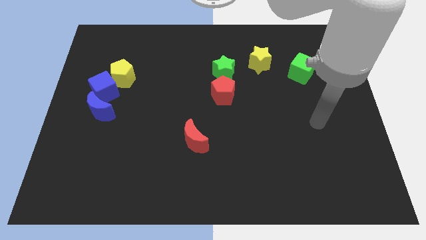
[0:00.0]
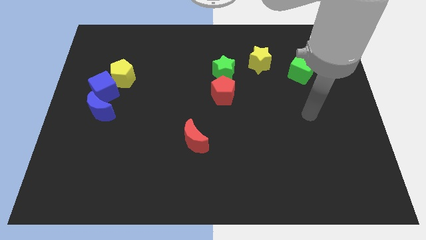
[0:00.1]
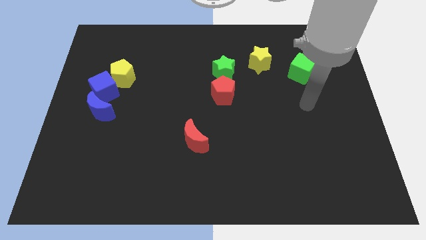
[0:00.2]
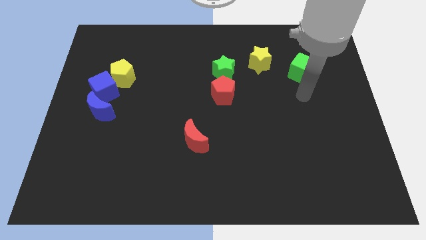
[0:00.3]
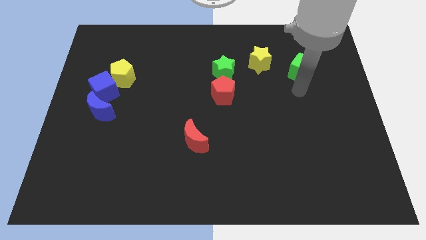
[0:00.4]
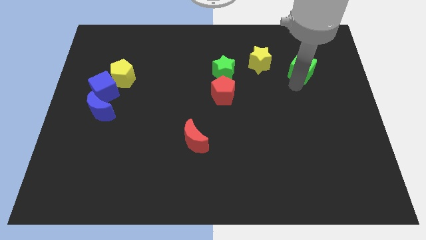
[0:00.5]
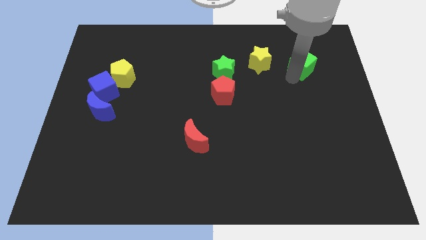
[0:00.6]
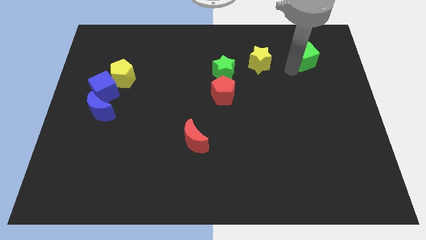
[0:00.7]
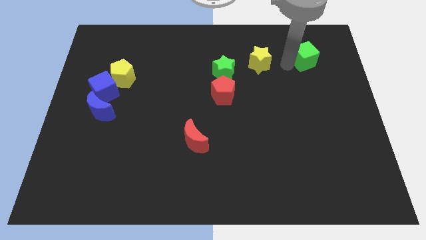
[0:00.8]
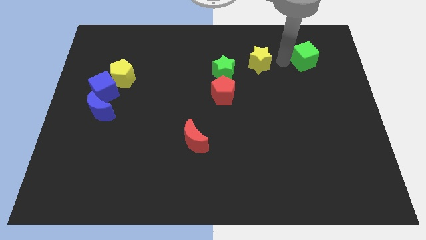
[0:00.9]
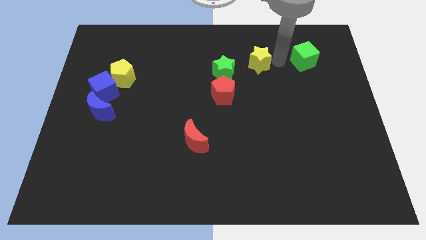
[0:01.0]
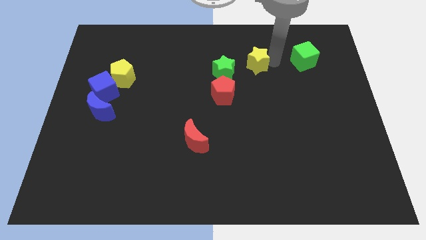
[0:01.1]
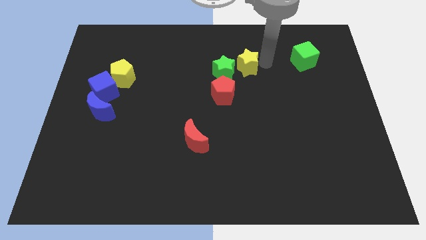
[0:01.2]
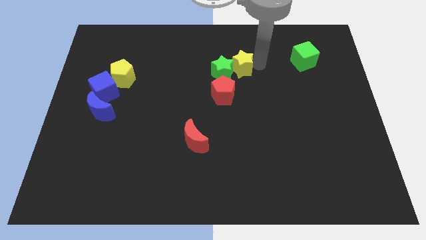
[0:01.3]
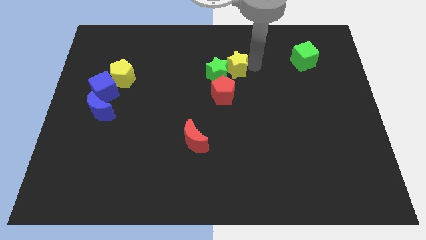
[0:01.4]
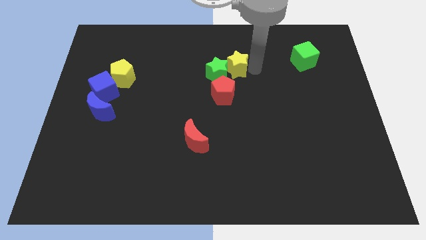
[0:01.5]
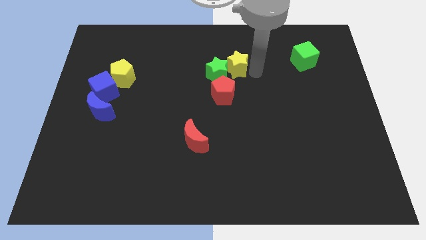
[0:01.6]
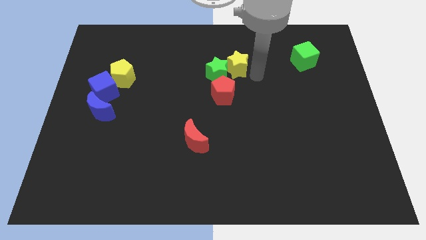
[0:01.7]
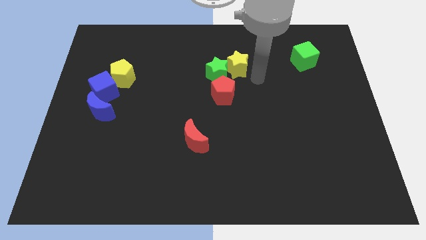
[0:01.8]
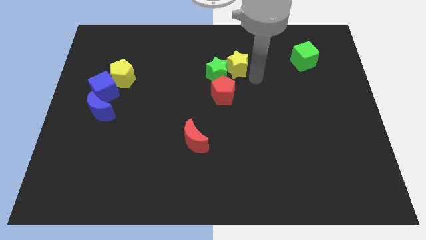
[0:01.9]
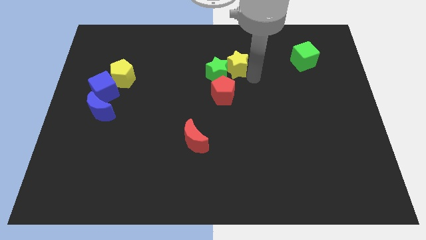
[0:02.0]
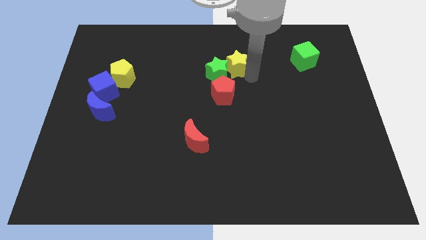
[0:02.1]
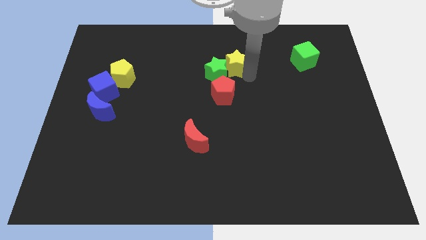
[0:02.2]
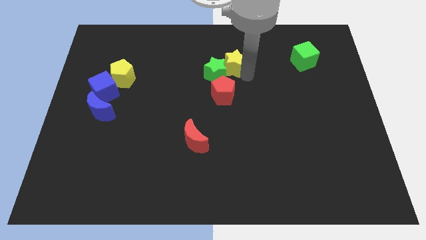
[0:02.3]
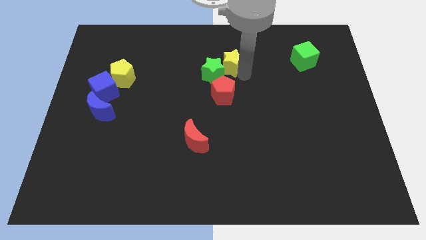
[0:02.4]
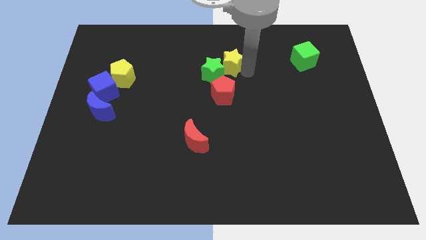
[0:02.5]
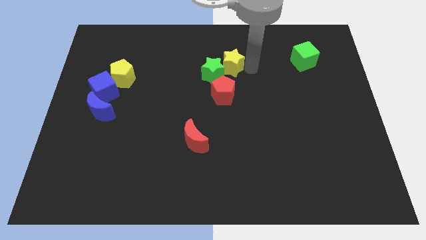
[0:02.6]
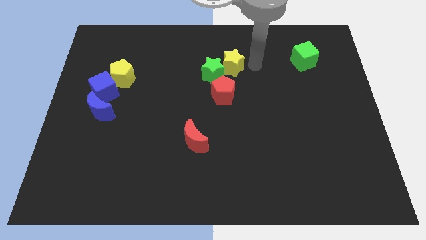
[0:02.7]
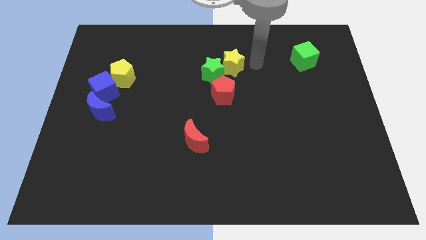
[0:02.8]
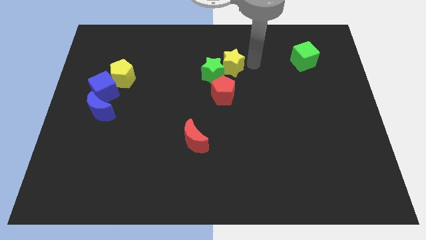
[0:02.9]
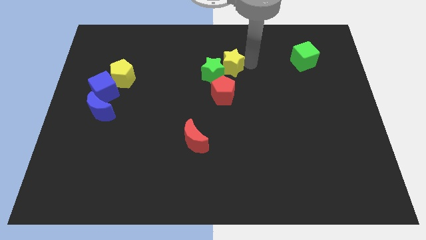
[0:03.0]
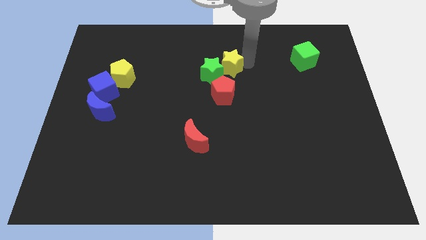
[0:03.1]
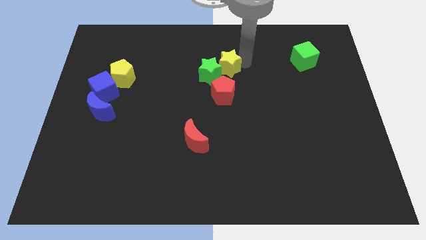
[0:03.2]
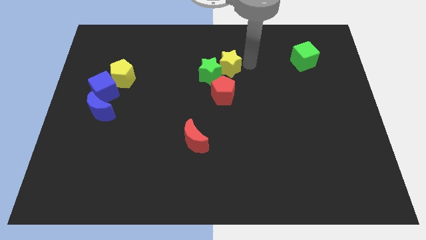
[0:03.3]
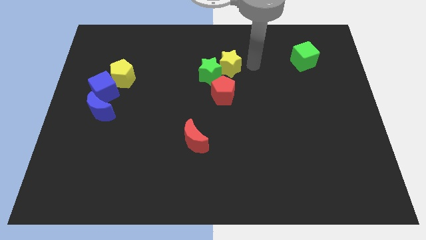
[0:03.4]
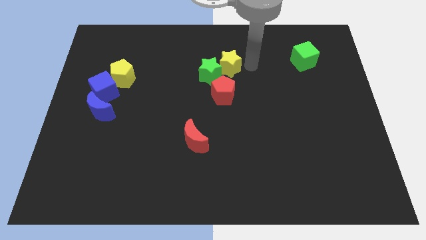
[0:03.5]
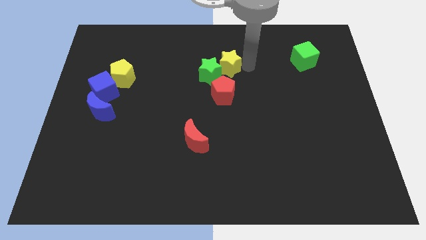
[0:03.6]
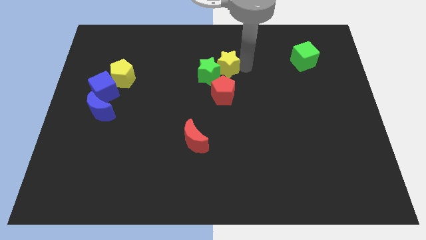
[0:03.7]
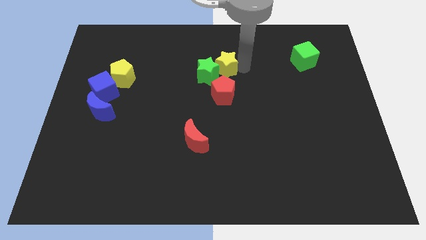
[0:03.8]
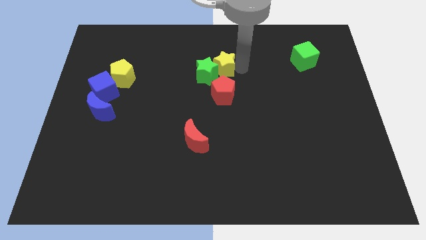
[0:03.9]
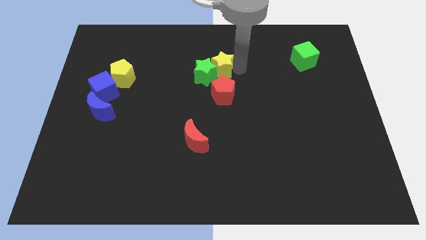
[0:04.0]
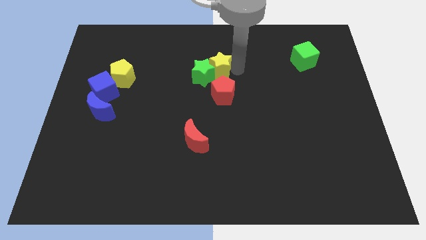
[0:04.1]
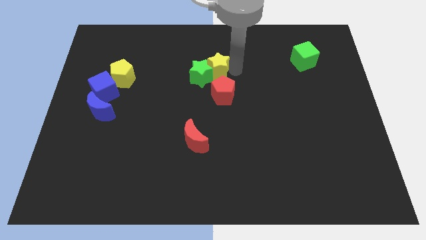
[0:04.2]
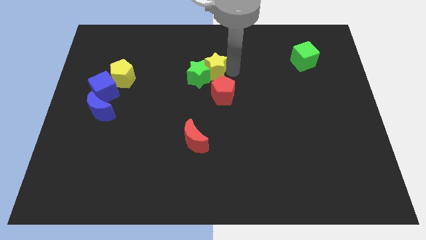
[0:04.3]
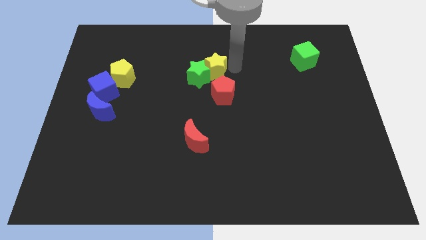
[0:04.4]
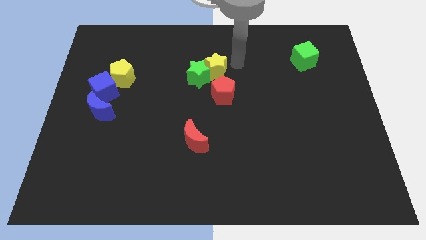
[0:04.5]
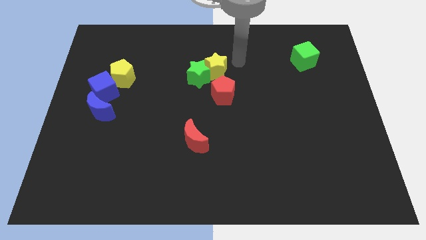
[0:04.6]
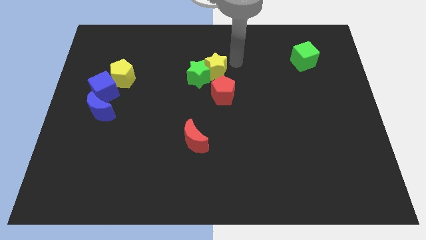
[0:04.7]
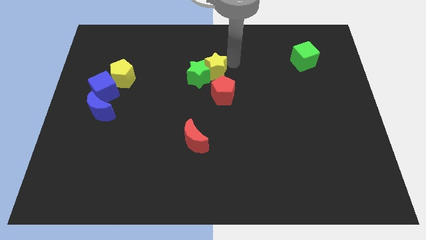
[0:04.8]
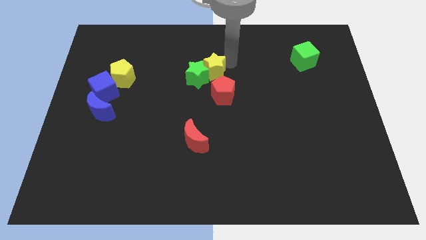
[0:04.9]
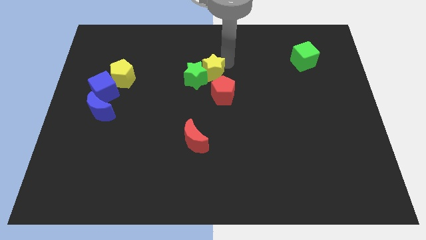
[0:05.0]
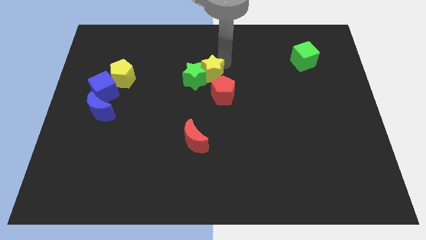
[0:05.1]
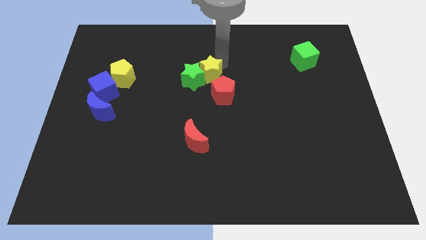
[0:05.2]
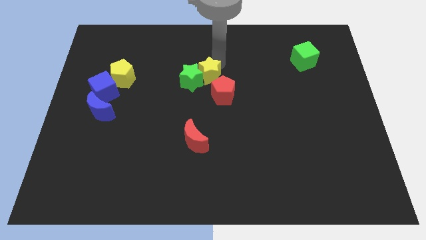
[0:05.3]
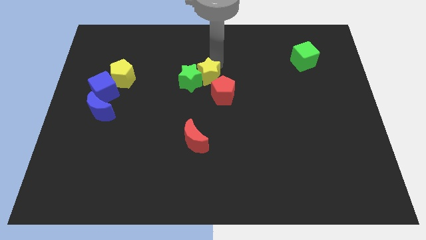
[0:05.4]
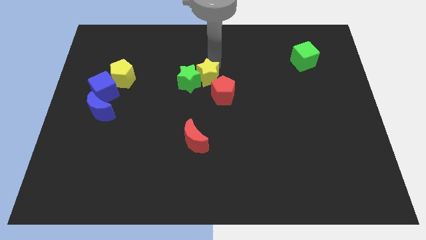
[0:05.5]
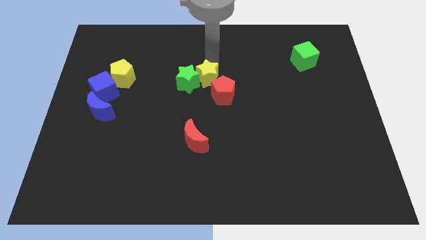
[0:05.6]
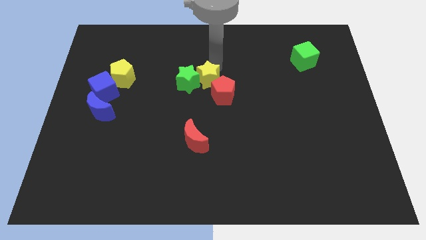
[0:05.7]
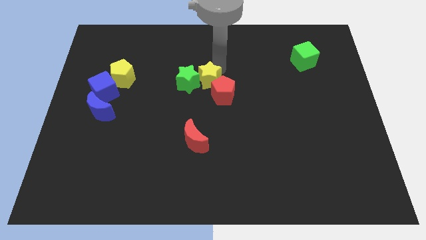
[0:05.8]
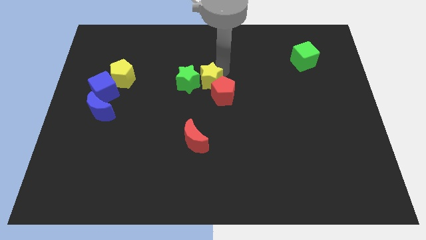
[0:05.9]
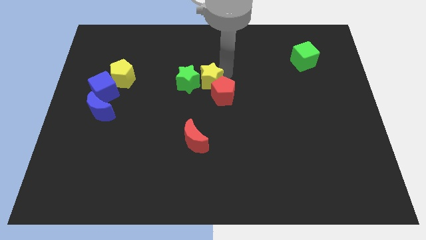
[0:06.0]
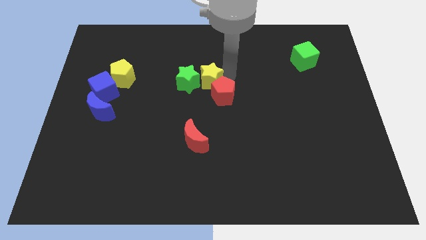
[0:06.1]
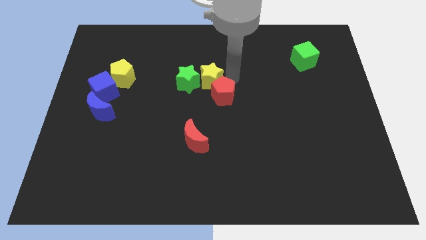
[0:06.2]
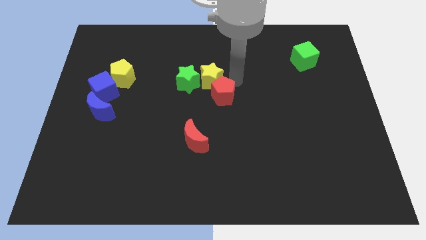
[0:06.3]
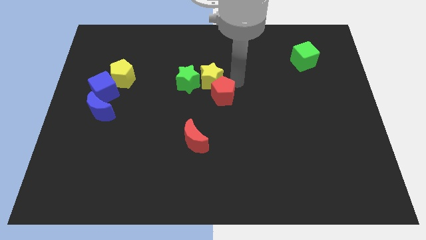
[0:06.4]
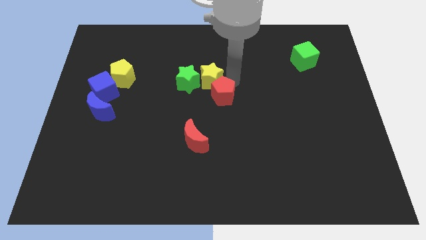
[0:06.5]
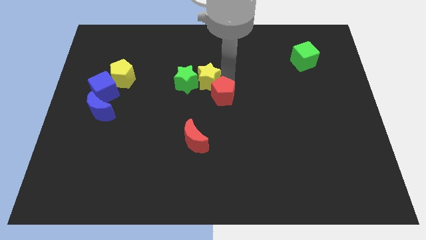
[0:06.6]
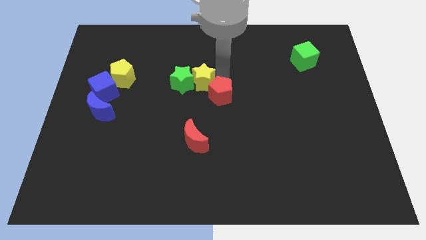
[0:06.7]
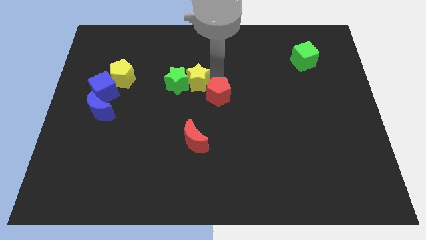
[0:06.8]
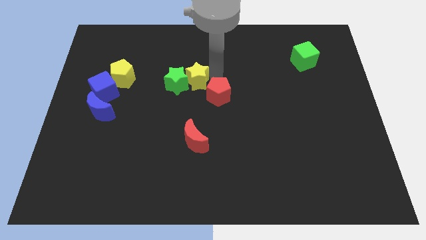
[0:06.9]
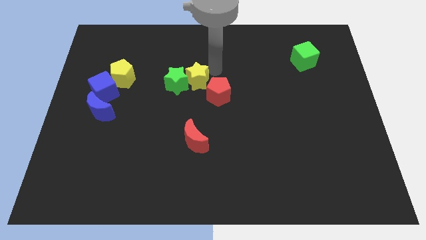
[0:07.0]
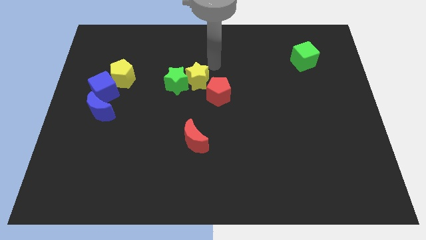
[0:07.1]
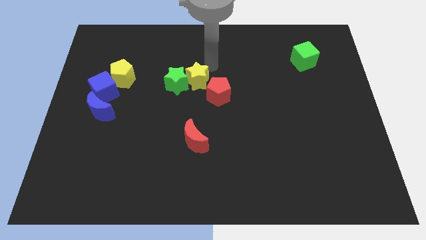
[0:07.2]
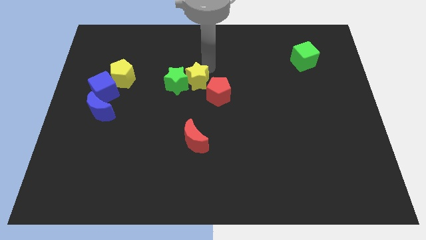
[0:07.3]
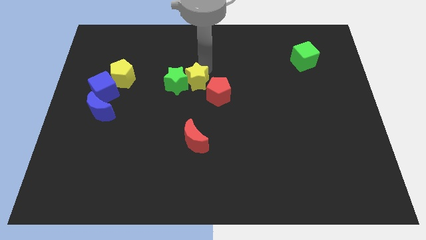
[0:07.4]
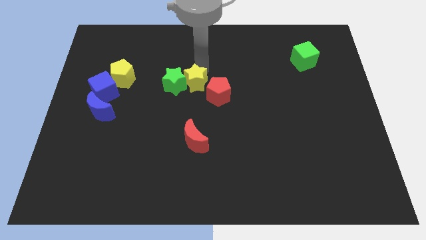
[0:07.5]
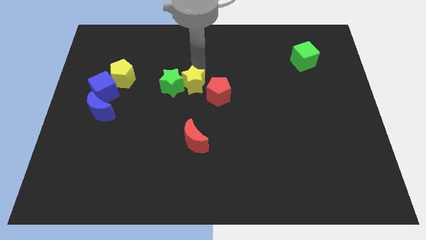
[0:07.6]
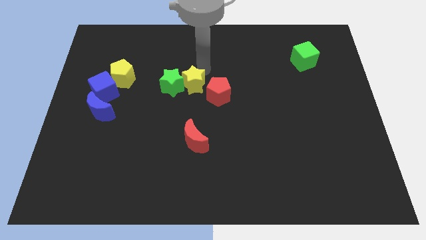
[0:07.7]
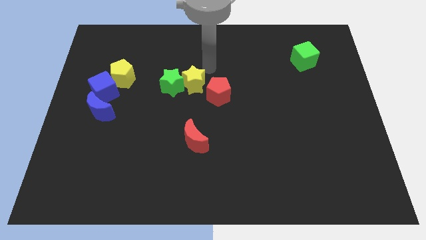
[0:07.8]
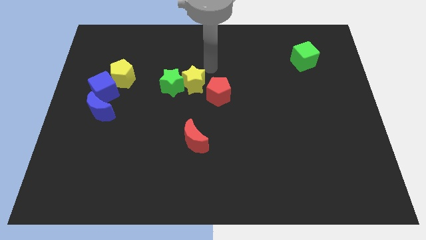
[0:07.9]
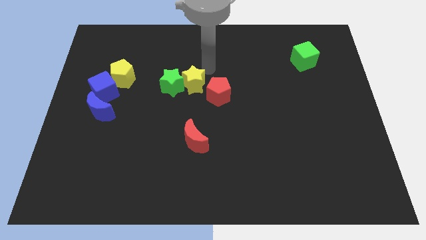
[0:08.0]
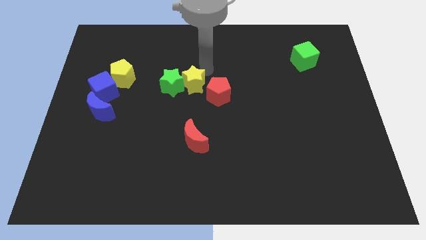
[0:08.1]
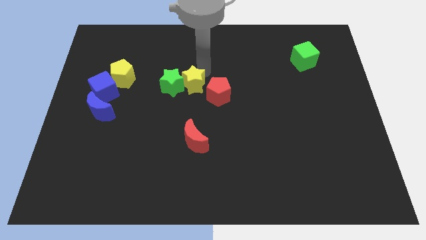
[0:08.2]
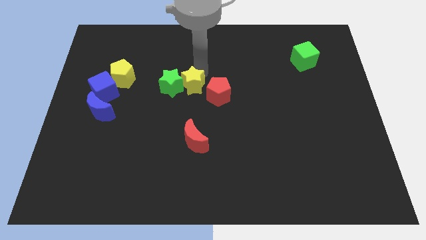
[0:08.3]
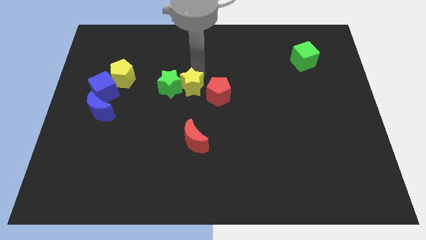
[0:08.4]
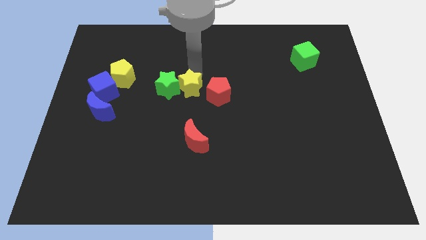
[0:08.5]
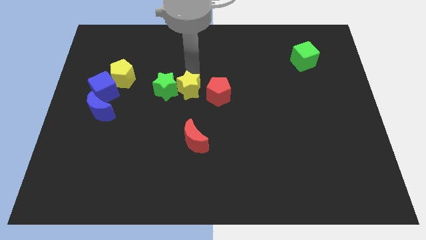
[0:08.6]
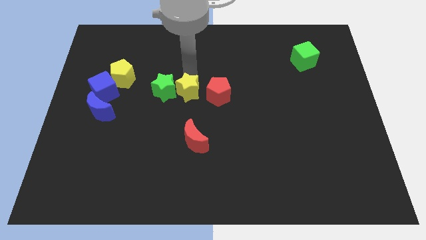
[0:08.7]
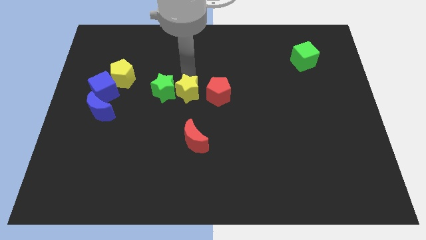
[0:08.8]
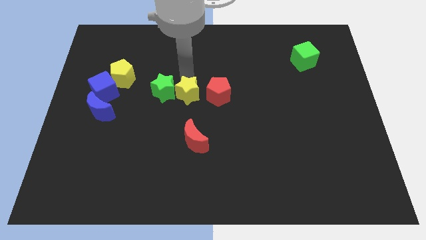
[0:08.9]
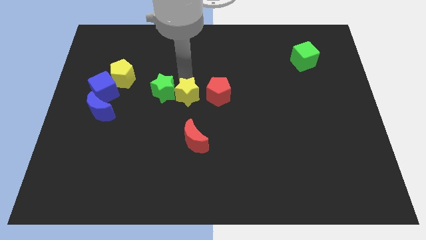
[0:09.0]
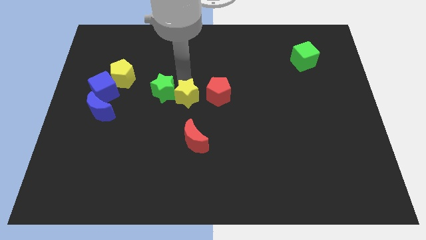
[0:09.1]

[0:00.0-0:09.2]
push the yellow star down and to the left
